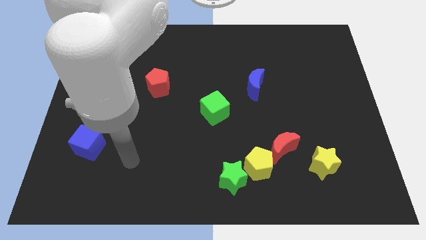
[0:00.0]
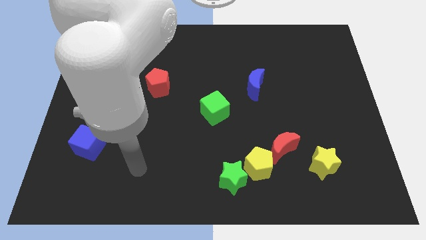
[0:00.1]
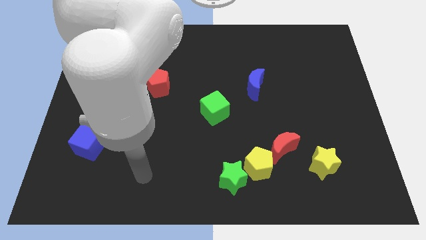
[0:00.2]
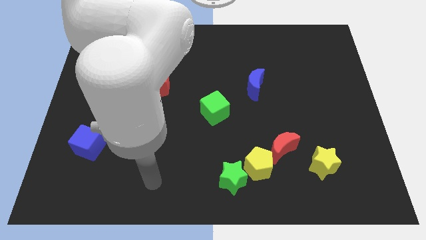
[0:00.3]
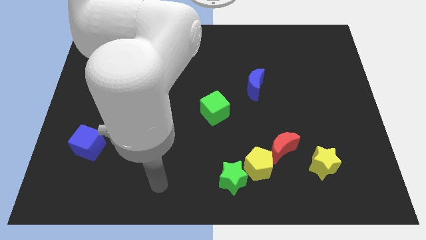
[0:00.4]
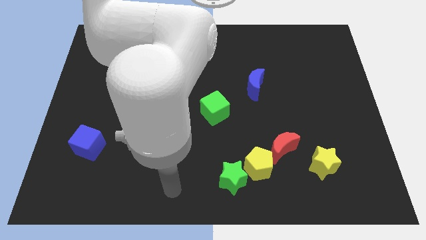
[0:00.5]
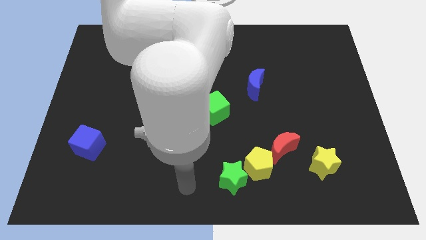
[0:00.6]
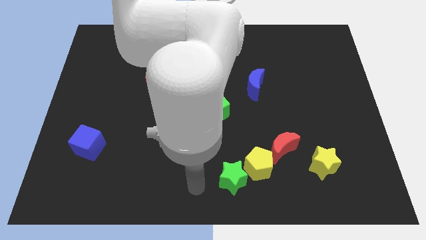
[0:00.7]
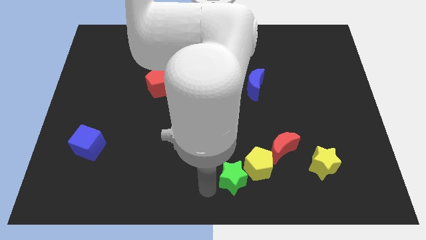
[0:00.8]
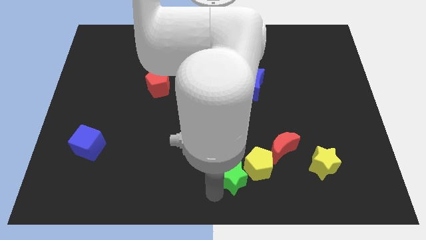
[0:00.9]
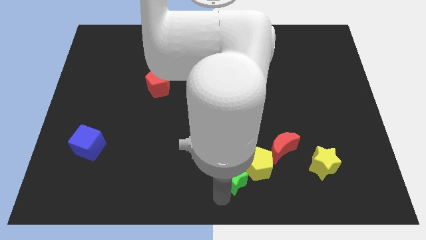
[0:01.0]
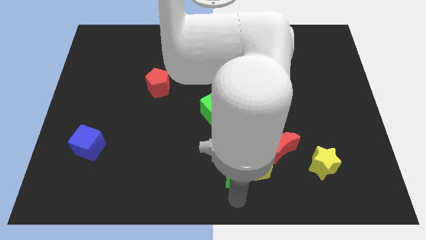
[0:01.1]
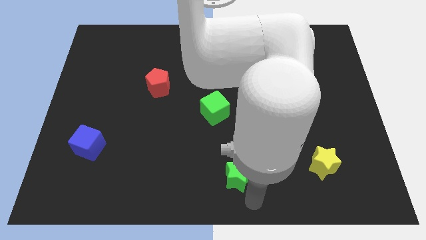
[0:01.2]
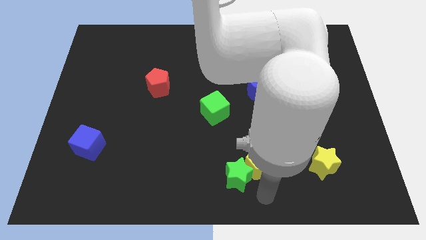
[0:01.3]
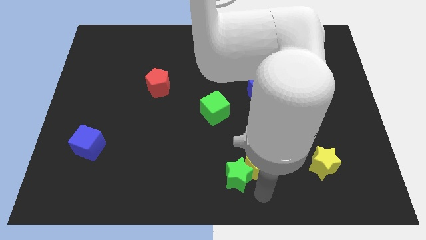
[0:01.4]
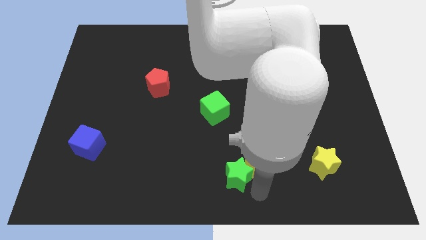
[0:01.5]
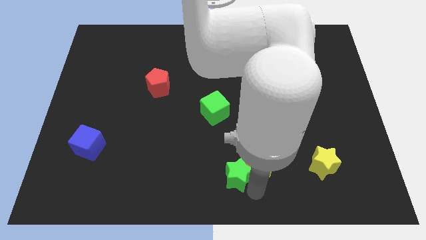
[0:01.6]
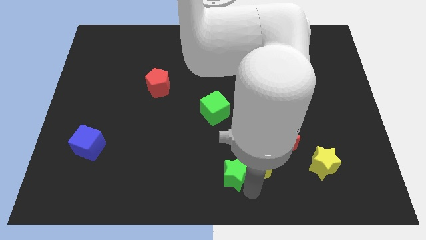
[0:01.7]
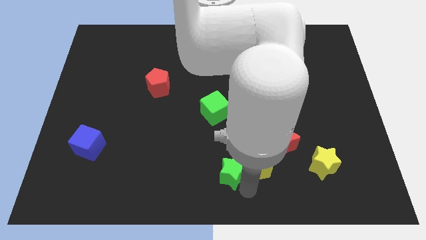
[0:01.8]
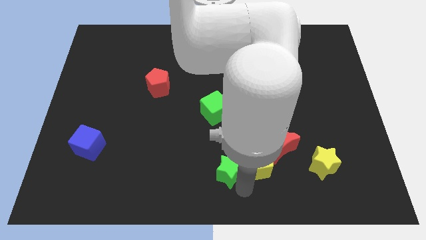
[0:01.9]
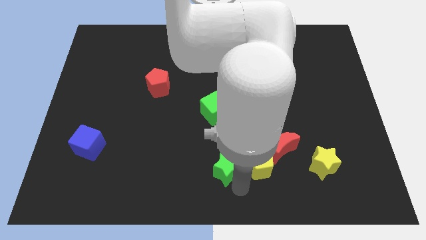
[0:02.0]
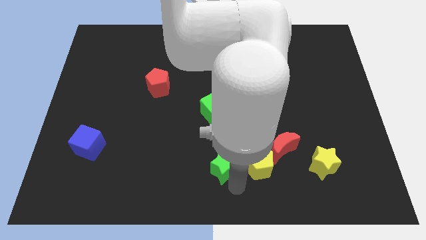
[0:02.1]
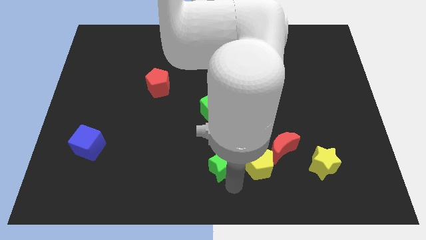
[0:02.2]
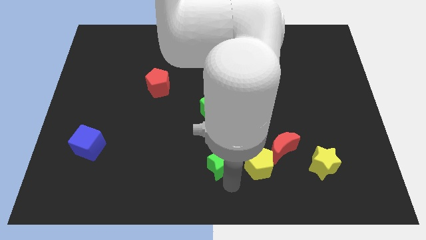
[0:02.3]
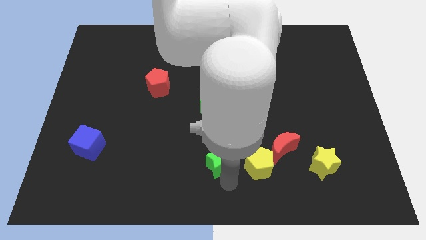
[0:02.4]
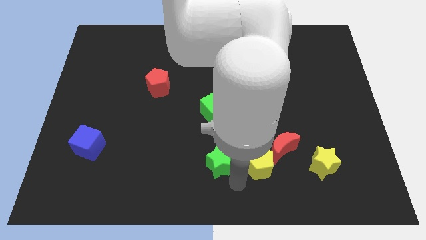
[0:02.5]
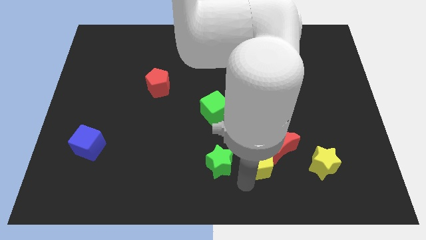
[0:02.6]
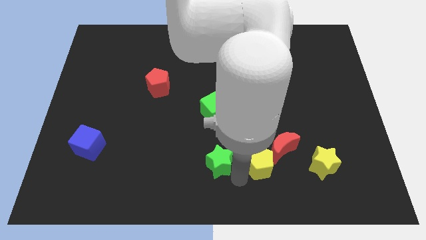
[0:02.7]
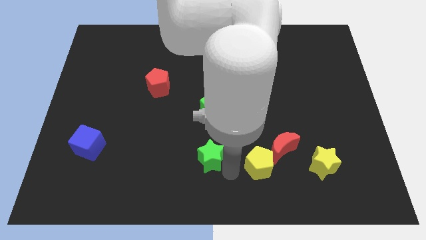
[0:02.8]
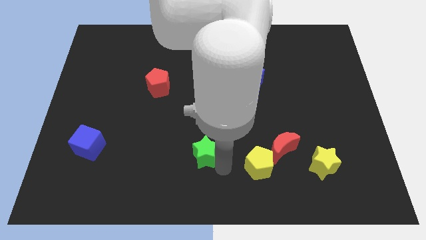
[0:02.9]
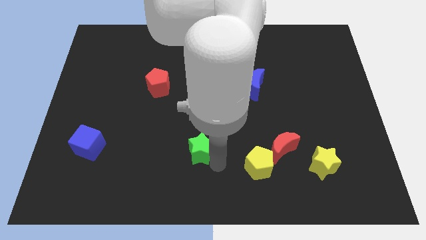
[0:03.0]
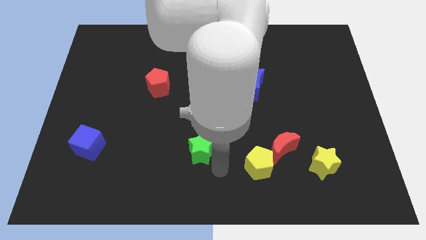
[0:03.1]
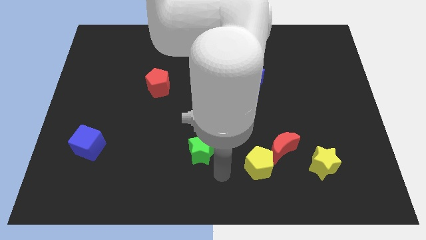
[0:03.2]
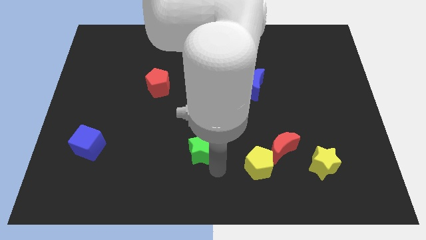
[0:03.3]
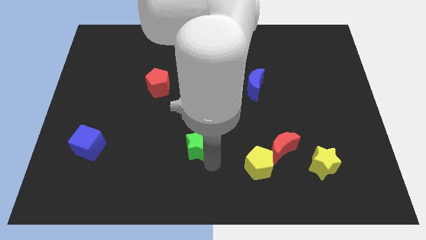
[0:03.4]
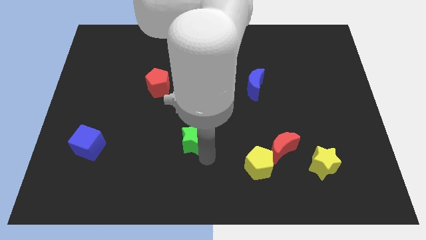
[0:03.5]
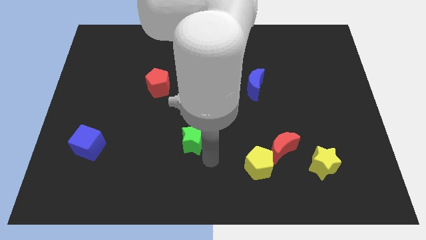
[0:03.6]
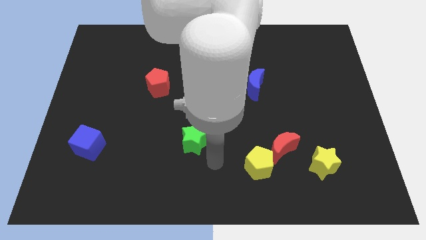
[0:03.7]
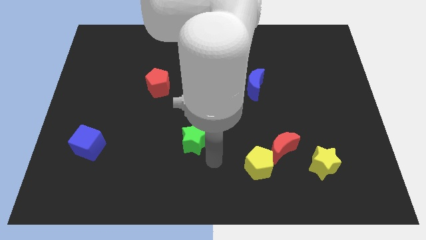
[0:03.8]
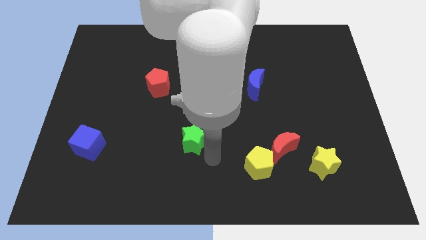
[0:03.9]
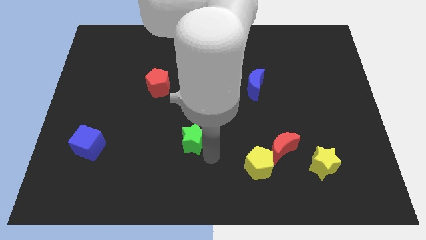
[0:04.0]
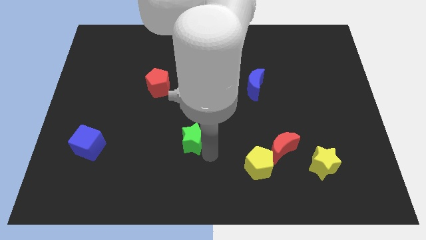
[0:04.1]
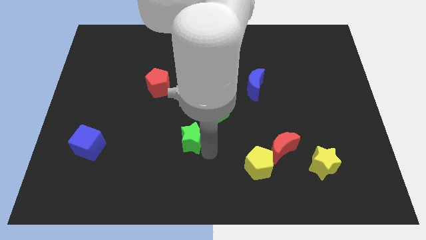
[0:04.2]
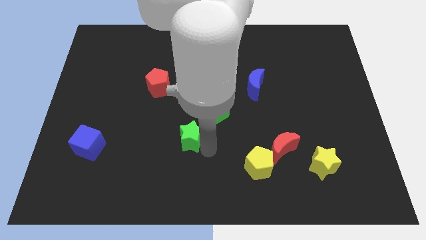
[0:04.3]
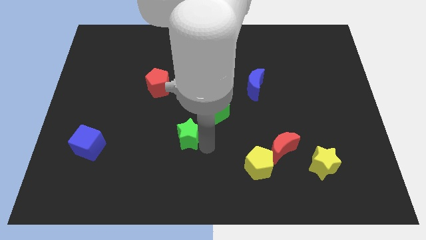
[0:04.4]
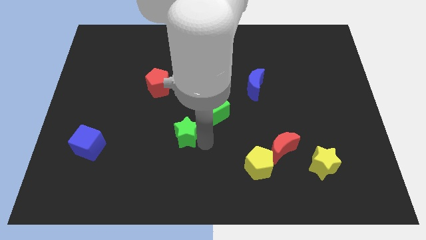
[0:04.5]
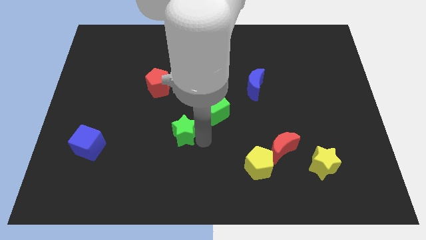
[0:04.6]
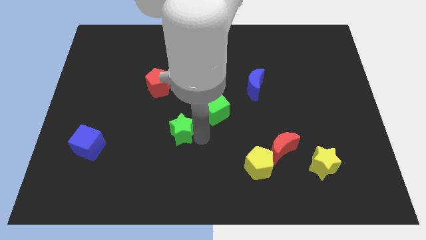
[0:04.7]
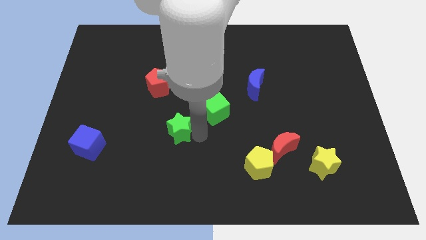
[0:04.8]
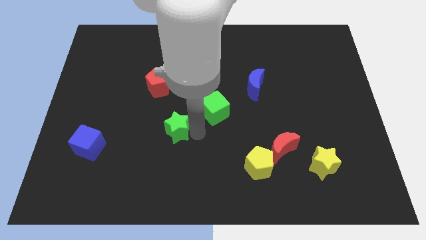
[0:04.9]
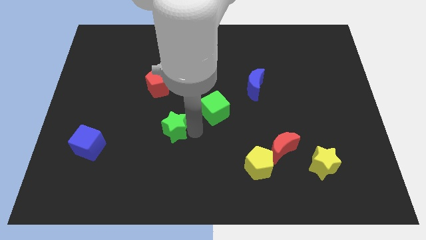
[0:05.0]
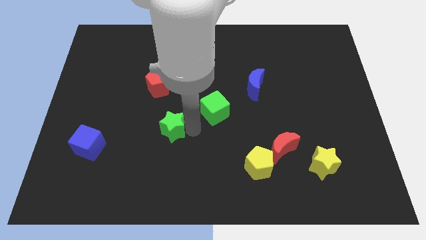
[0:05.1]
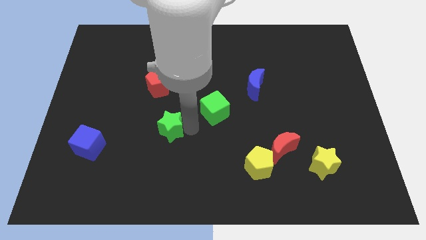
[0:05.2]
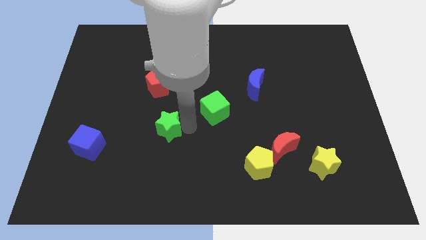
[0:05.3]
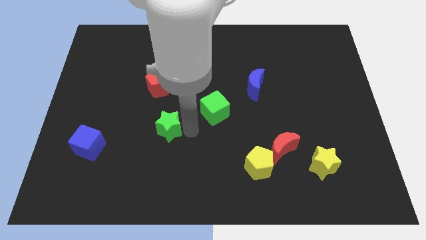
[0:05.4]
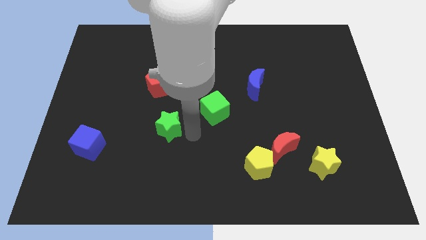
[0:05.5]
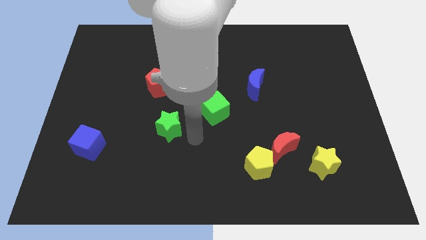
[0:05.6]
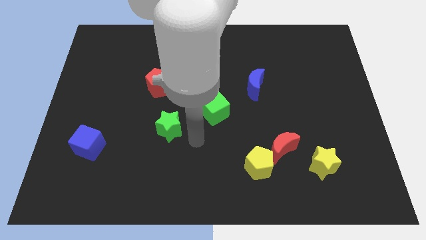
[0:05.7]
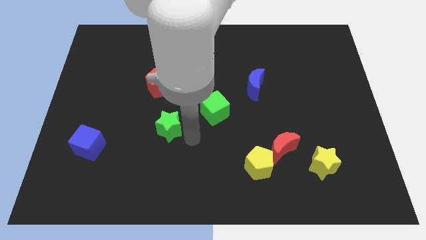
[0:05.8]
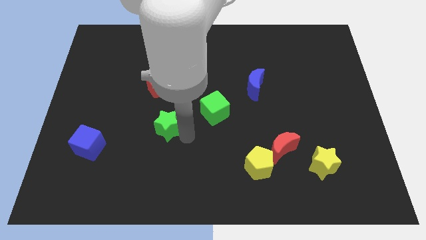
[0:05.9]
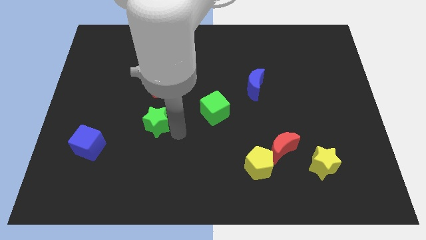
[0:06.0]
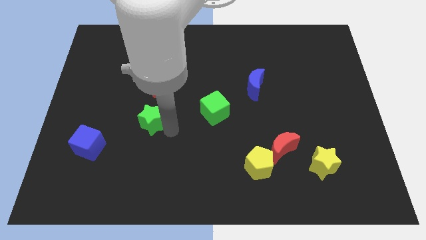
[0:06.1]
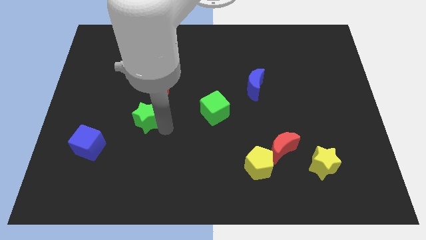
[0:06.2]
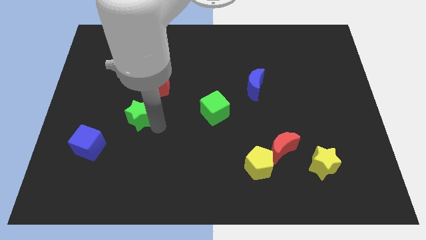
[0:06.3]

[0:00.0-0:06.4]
put the green star to the bottom left side of the red pentagon
